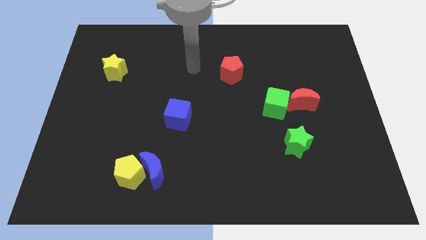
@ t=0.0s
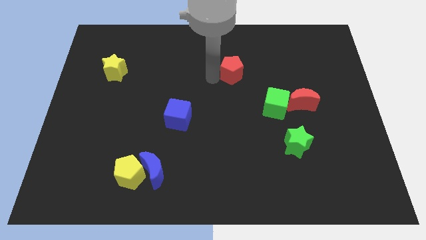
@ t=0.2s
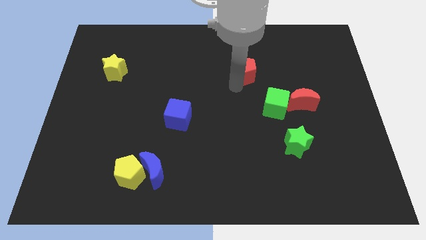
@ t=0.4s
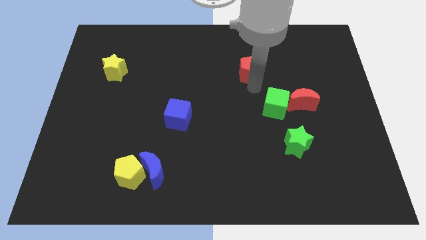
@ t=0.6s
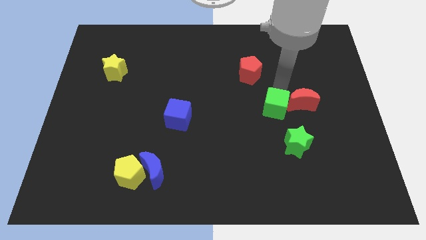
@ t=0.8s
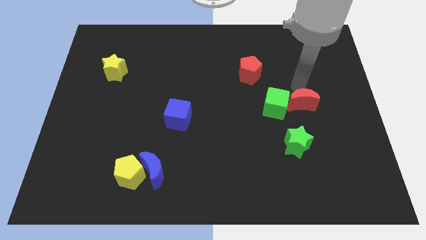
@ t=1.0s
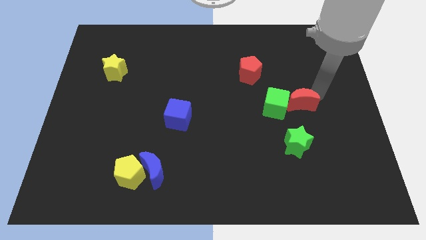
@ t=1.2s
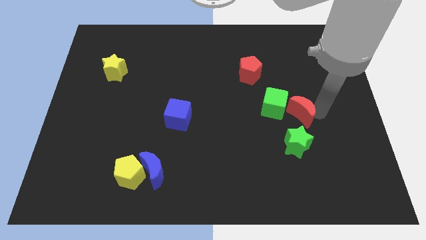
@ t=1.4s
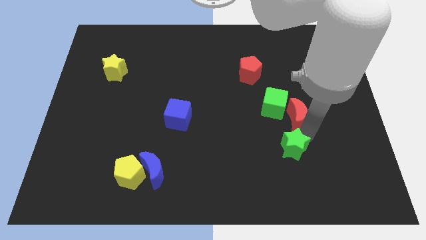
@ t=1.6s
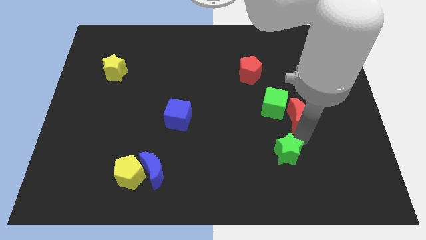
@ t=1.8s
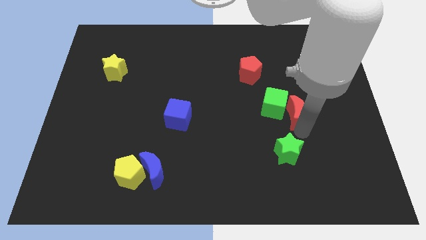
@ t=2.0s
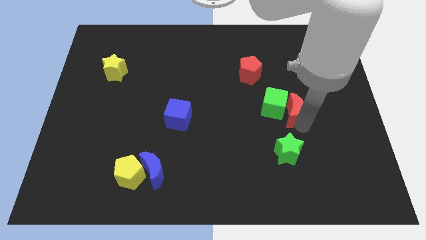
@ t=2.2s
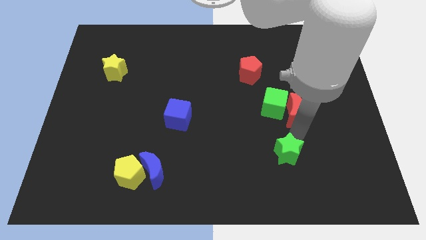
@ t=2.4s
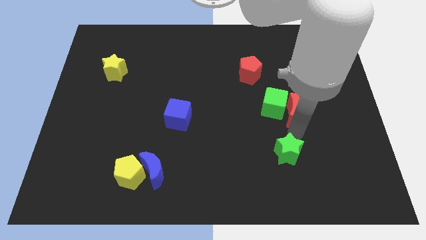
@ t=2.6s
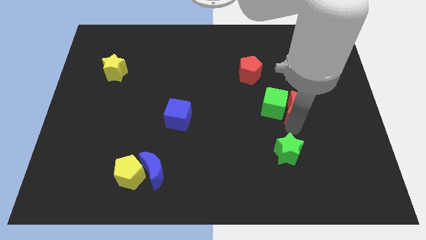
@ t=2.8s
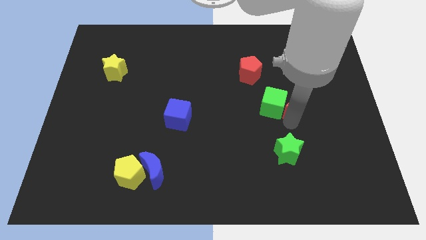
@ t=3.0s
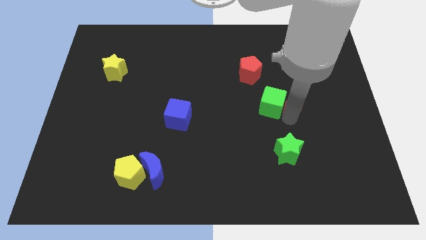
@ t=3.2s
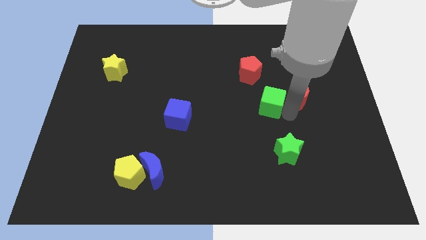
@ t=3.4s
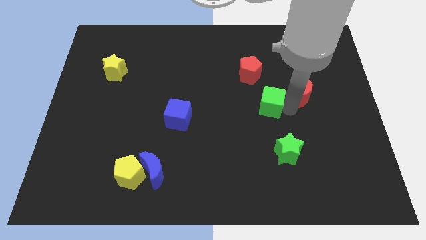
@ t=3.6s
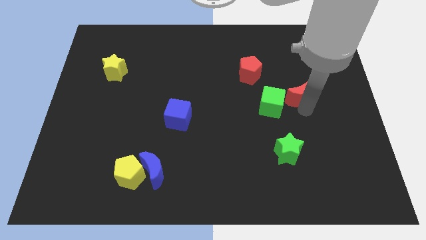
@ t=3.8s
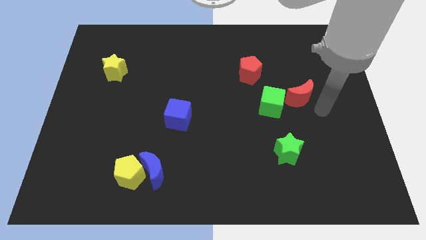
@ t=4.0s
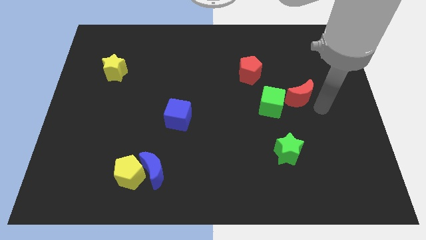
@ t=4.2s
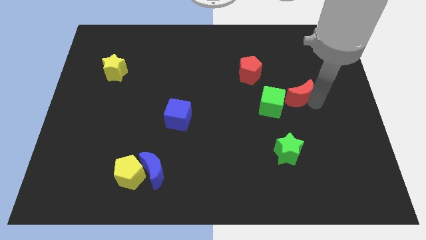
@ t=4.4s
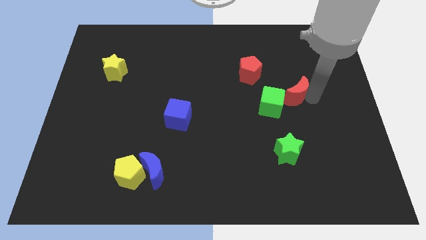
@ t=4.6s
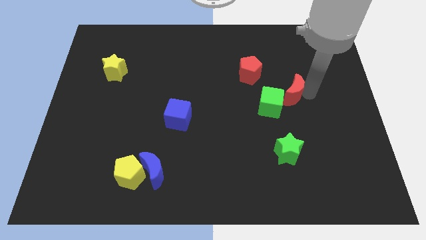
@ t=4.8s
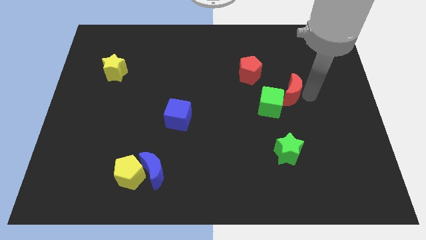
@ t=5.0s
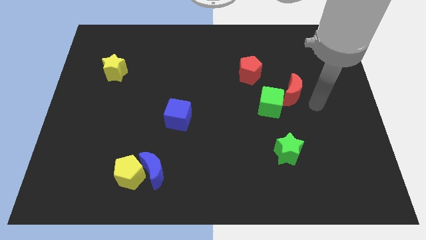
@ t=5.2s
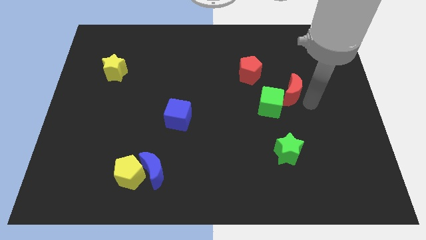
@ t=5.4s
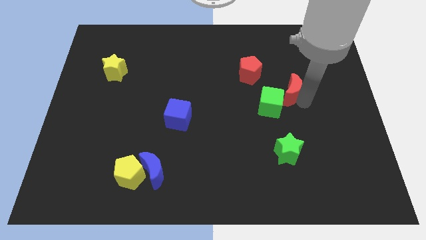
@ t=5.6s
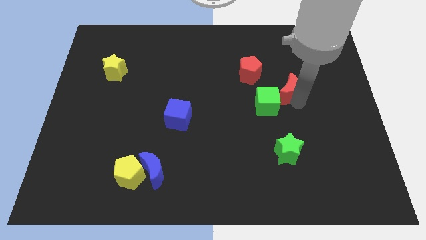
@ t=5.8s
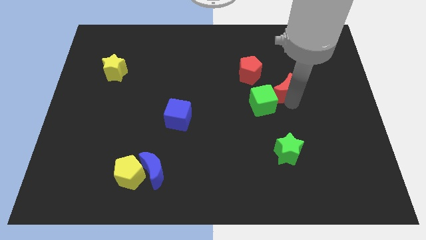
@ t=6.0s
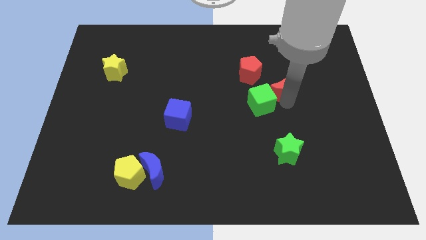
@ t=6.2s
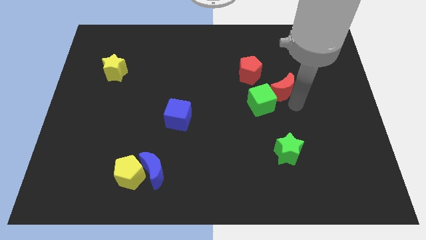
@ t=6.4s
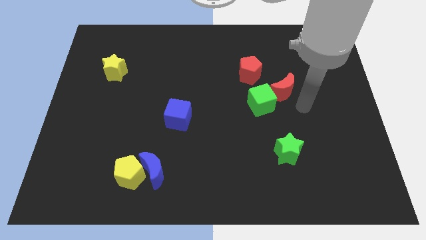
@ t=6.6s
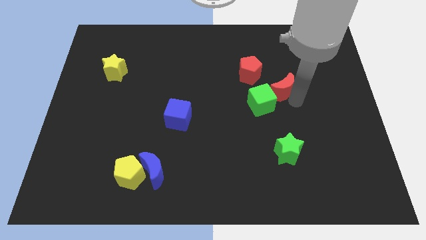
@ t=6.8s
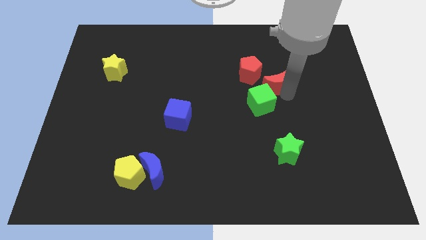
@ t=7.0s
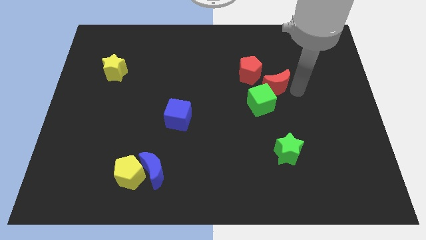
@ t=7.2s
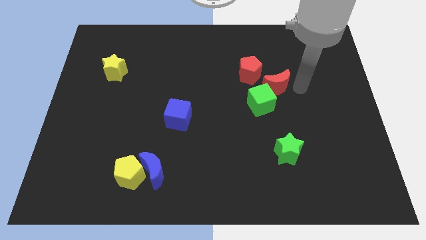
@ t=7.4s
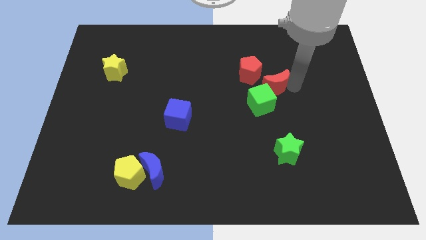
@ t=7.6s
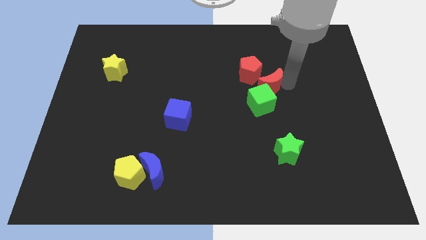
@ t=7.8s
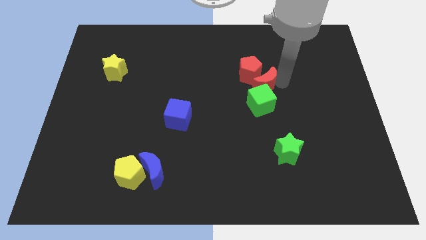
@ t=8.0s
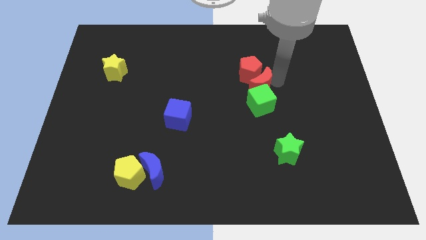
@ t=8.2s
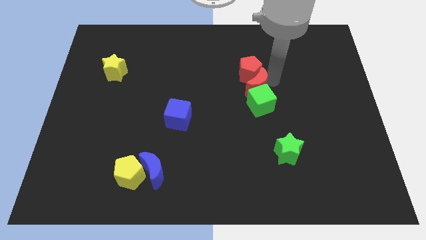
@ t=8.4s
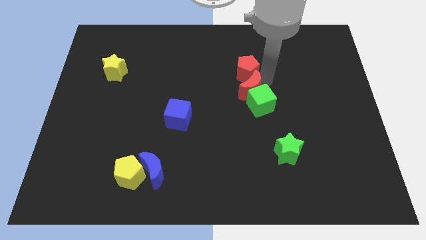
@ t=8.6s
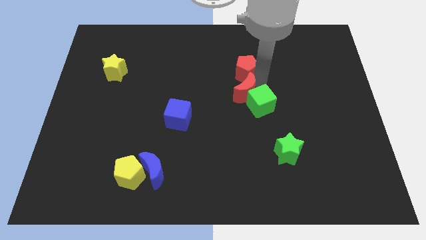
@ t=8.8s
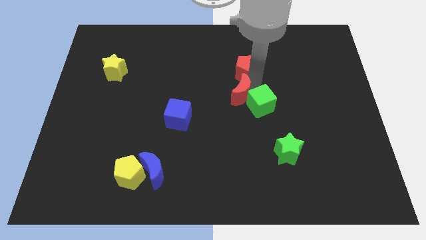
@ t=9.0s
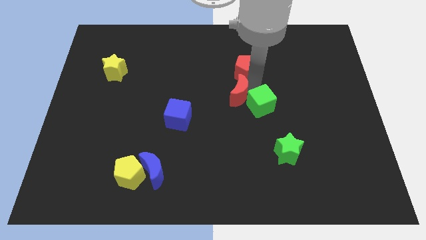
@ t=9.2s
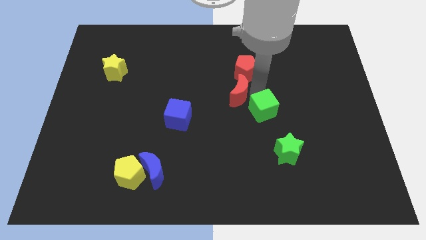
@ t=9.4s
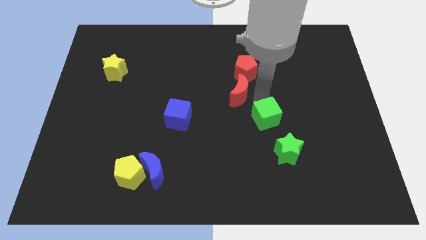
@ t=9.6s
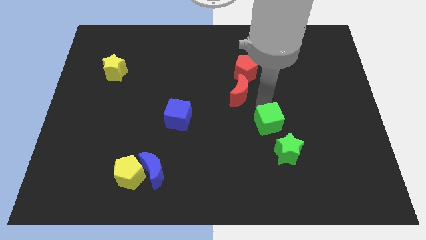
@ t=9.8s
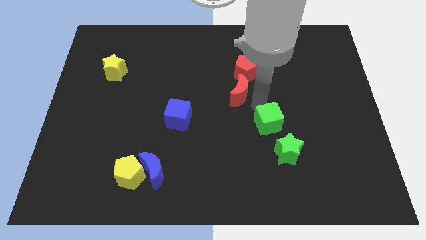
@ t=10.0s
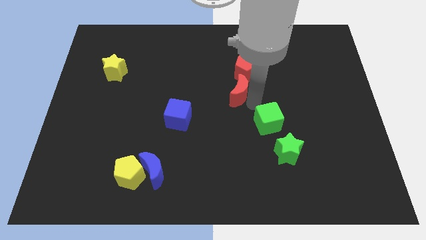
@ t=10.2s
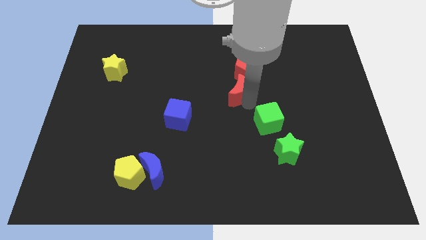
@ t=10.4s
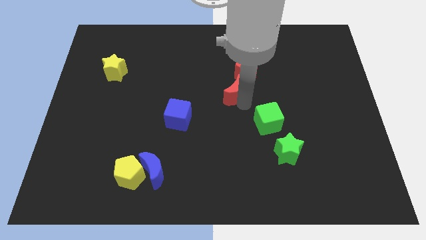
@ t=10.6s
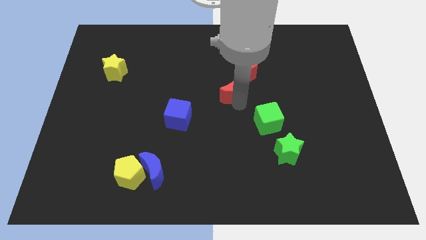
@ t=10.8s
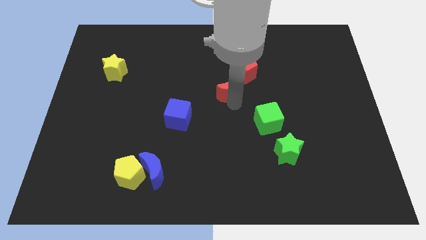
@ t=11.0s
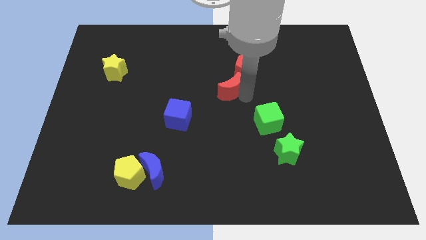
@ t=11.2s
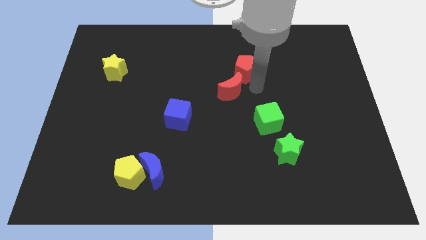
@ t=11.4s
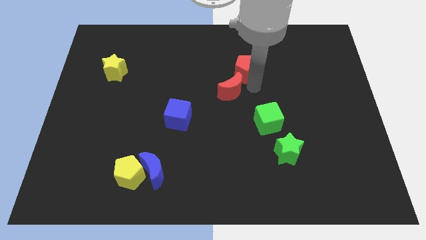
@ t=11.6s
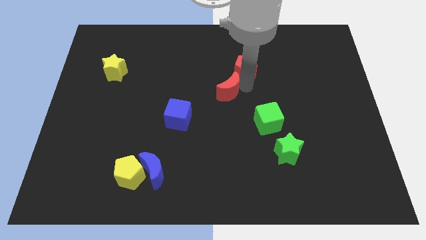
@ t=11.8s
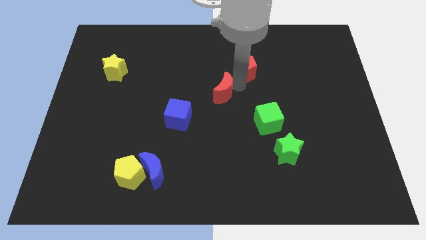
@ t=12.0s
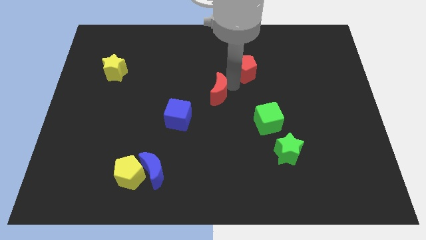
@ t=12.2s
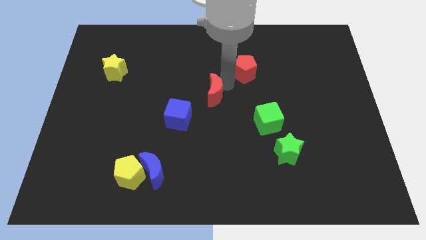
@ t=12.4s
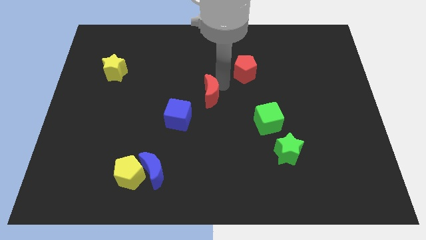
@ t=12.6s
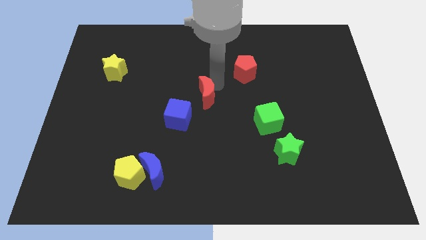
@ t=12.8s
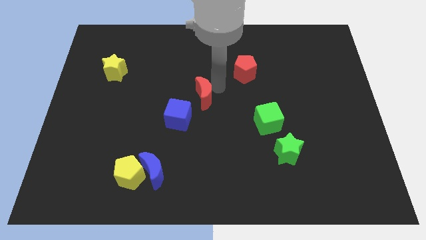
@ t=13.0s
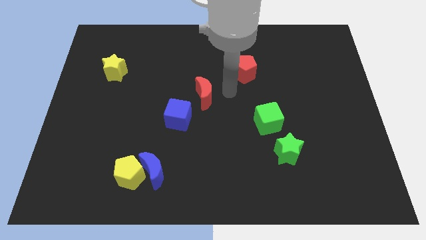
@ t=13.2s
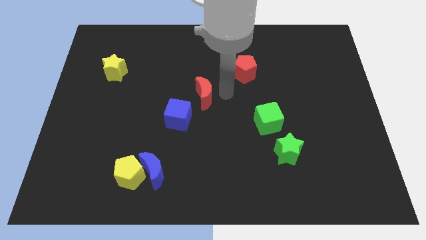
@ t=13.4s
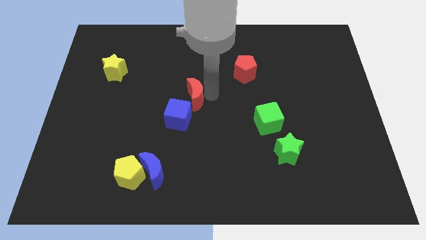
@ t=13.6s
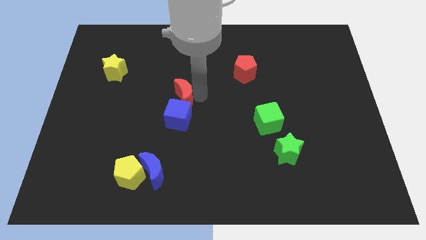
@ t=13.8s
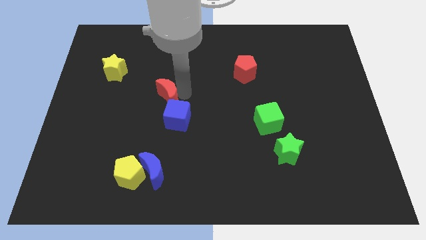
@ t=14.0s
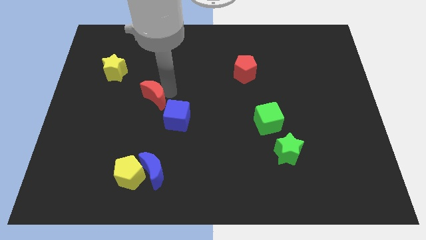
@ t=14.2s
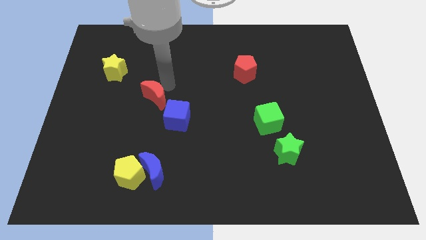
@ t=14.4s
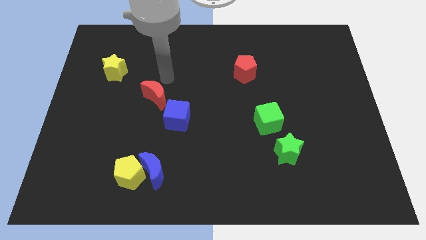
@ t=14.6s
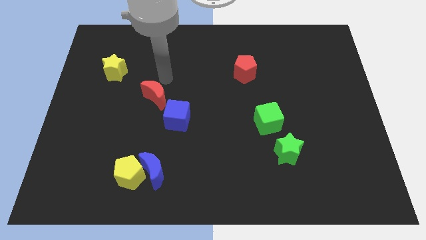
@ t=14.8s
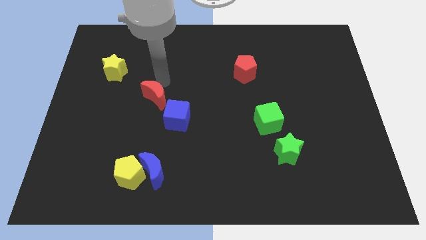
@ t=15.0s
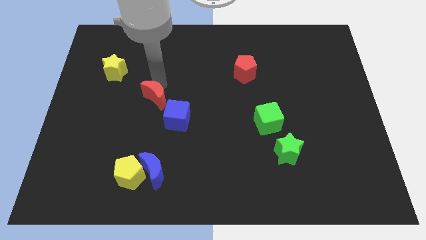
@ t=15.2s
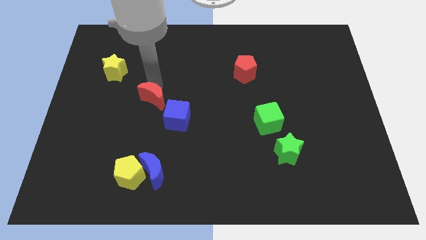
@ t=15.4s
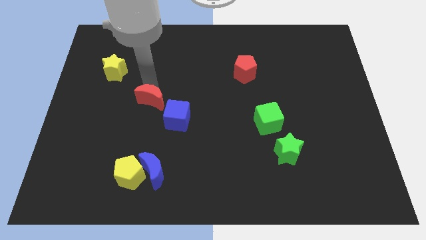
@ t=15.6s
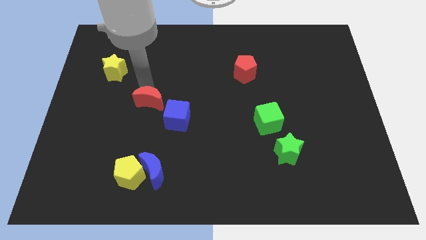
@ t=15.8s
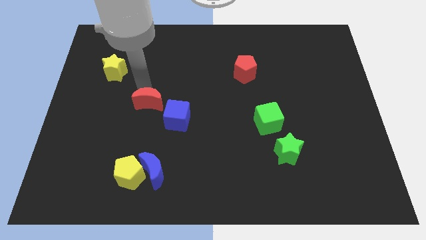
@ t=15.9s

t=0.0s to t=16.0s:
move the red moon just left of the blue cube
